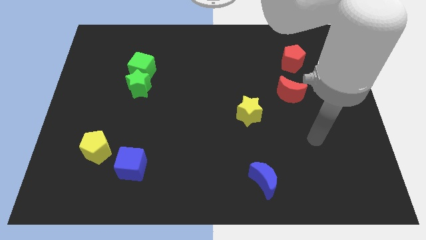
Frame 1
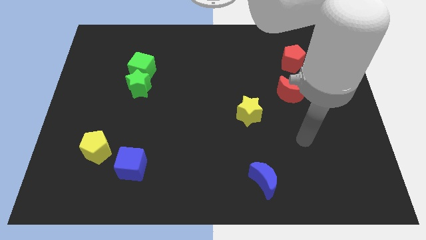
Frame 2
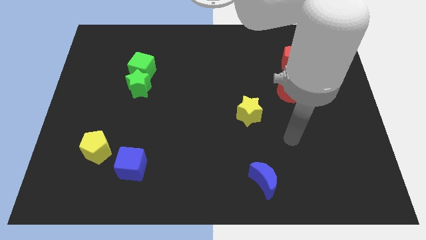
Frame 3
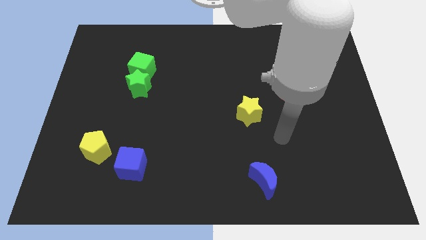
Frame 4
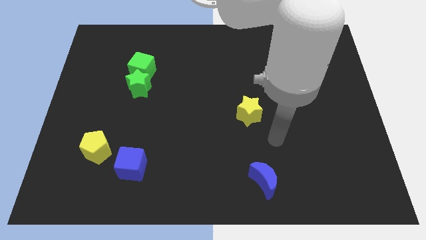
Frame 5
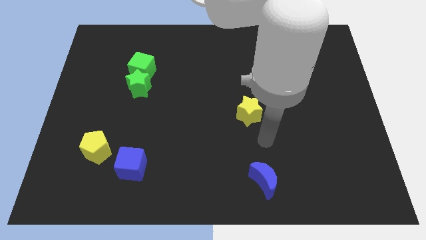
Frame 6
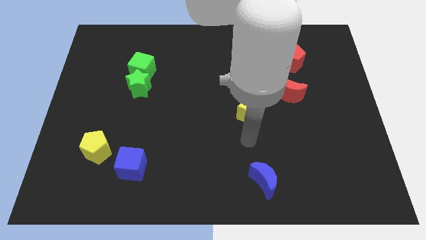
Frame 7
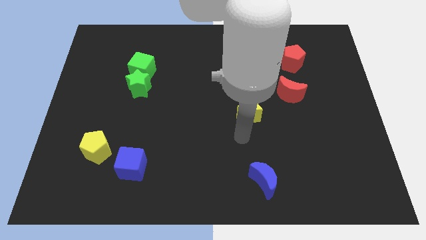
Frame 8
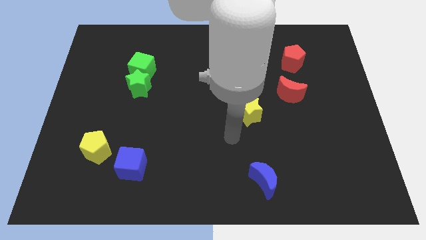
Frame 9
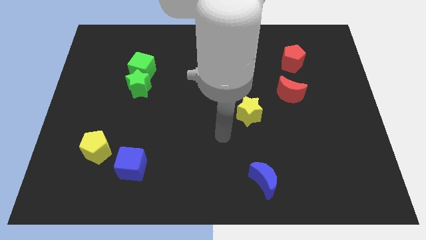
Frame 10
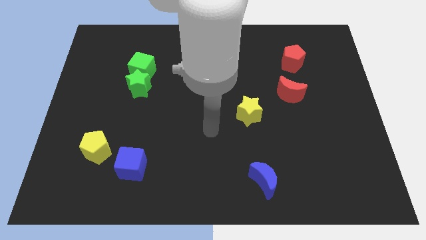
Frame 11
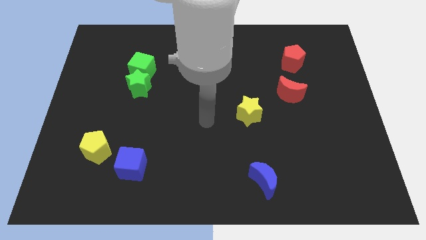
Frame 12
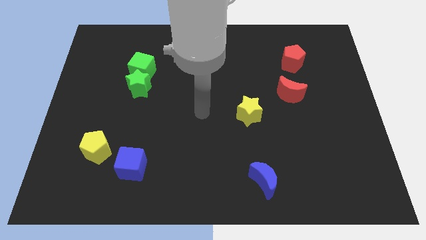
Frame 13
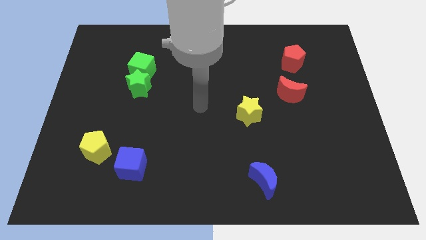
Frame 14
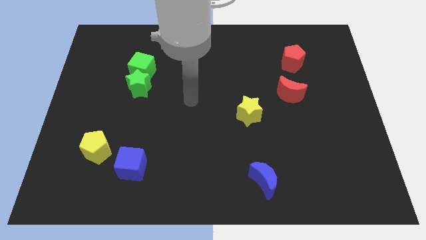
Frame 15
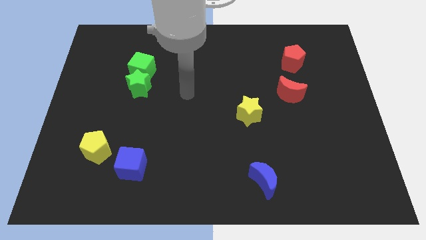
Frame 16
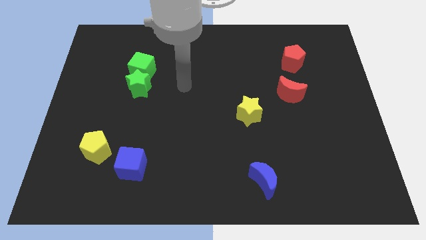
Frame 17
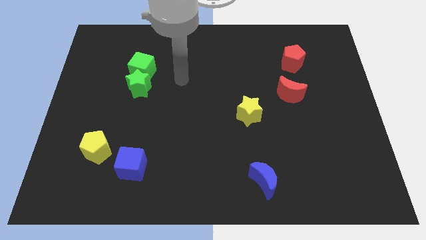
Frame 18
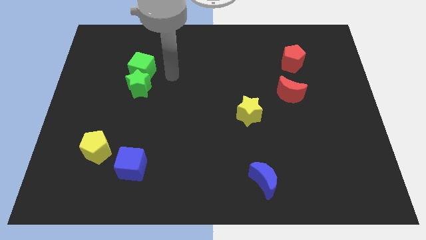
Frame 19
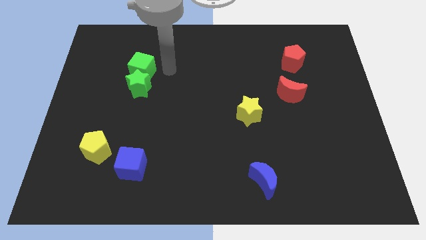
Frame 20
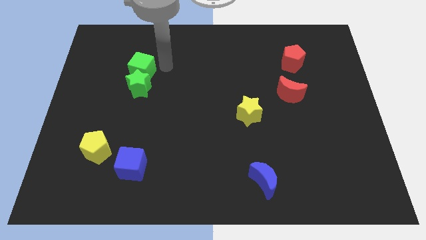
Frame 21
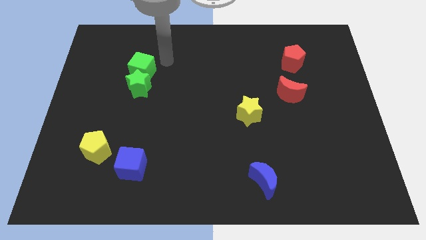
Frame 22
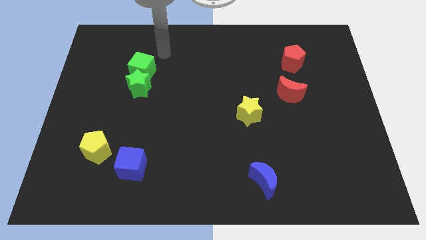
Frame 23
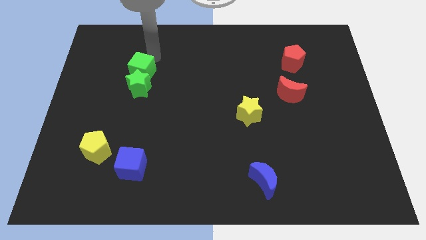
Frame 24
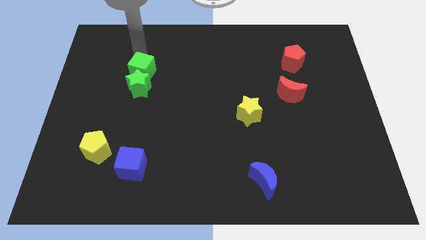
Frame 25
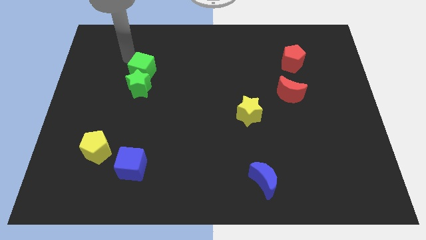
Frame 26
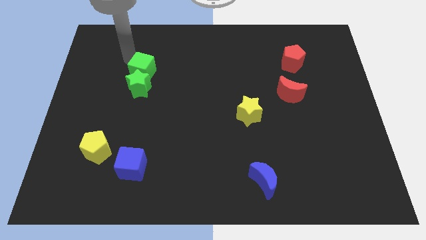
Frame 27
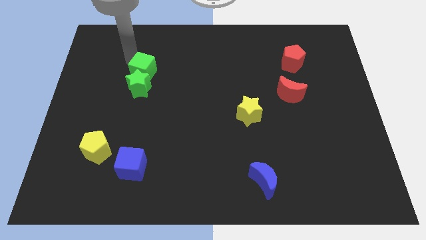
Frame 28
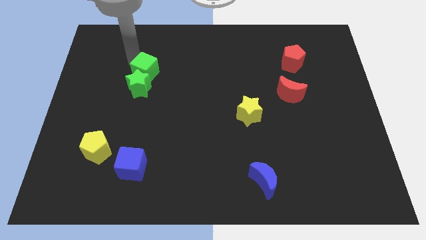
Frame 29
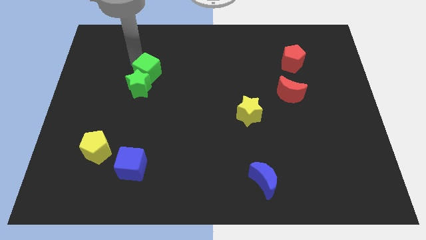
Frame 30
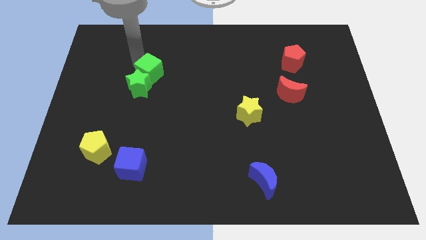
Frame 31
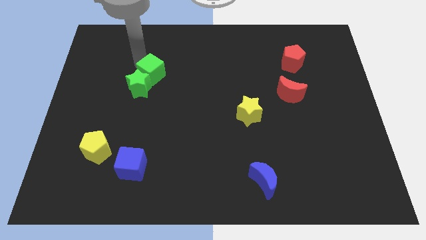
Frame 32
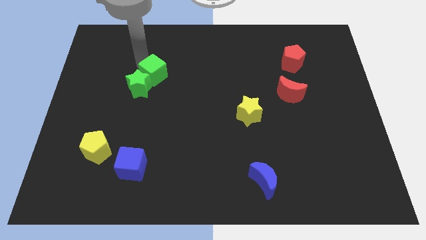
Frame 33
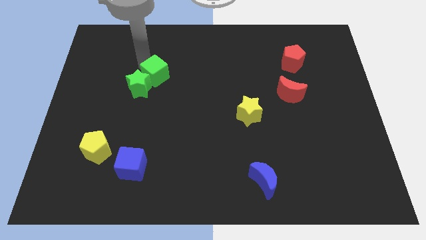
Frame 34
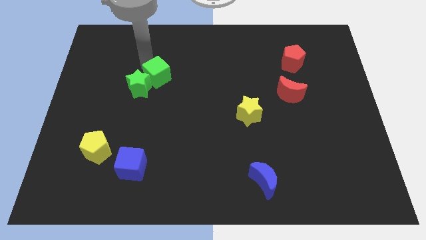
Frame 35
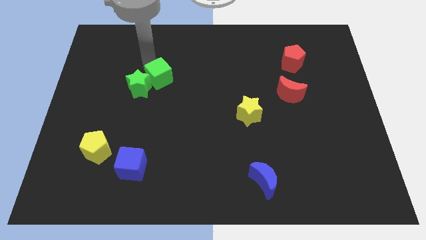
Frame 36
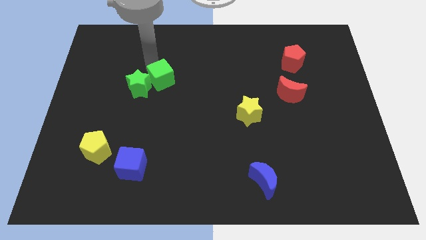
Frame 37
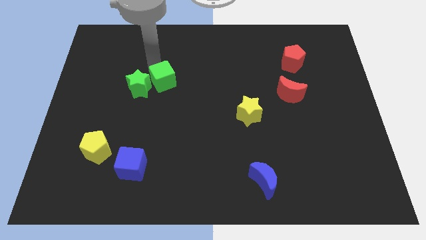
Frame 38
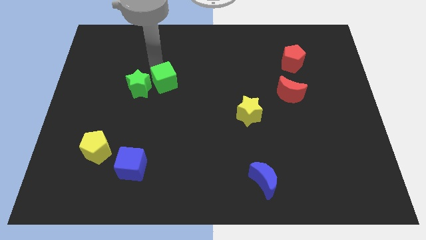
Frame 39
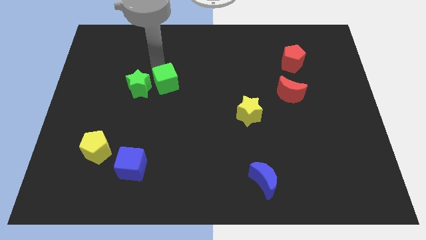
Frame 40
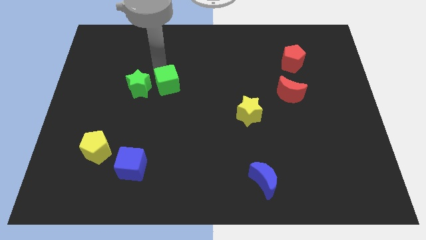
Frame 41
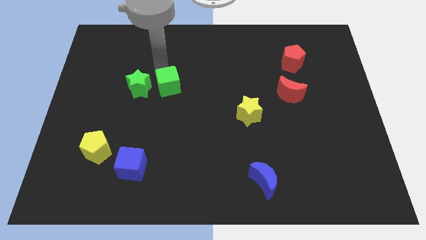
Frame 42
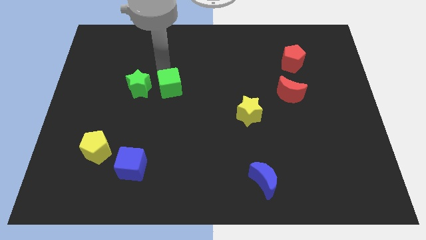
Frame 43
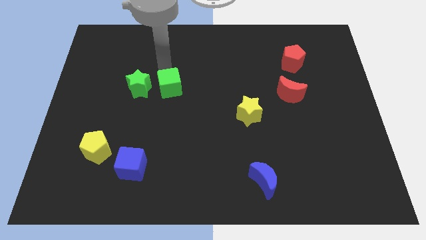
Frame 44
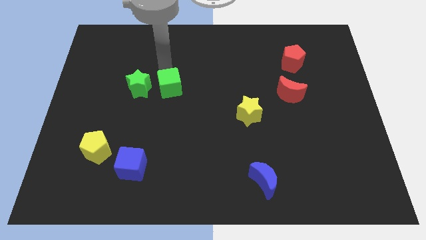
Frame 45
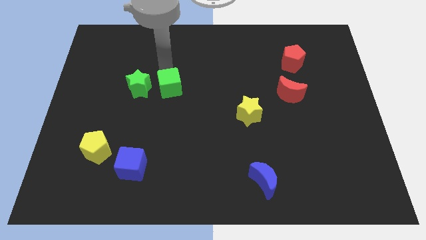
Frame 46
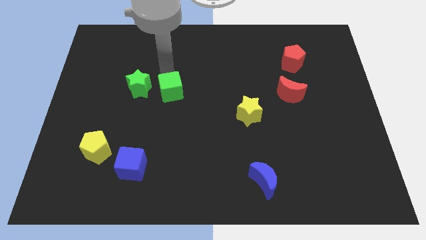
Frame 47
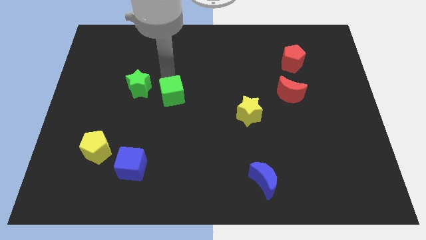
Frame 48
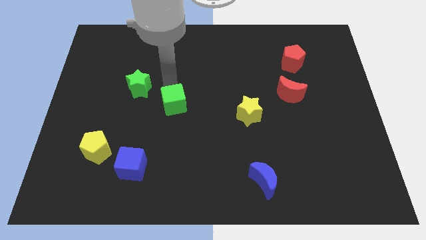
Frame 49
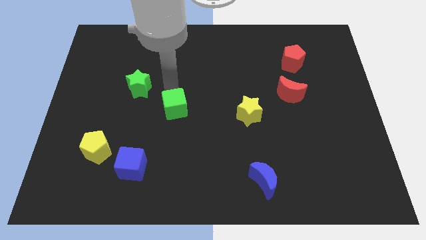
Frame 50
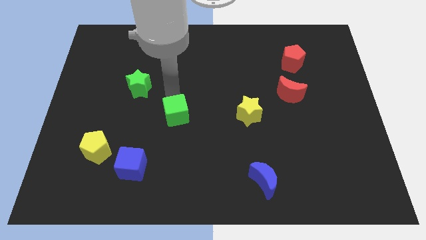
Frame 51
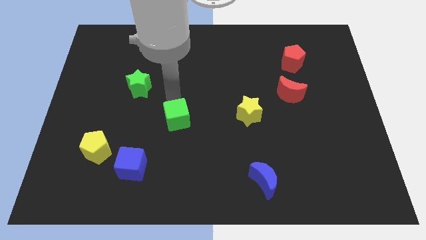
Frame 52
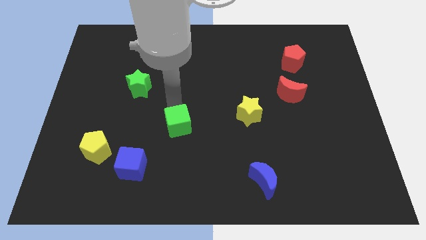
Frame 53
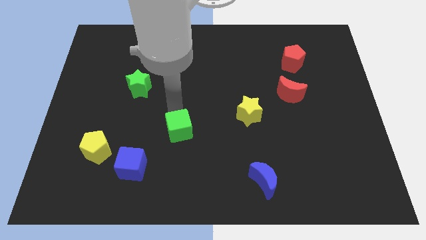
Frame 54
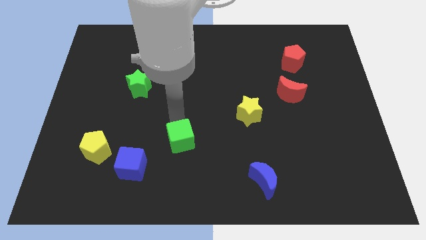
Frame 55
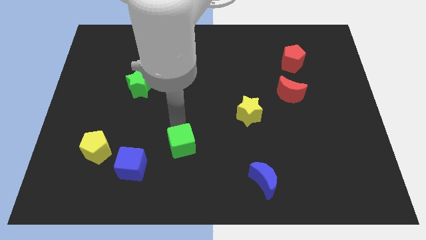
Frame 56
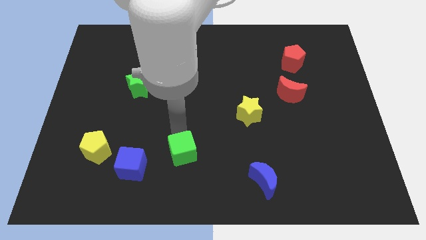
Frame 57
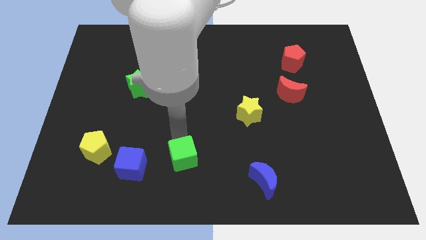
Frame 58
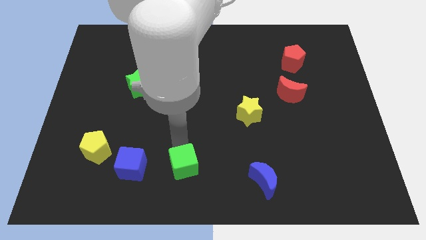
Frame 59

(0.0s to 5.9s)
push the green cube to the bottom
